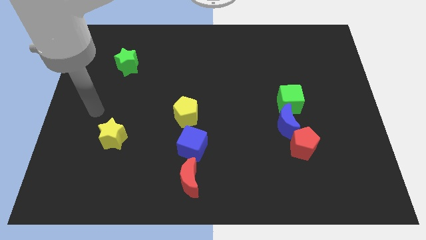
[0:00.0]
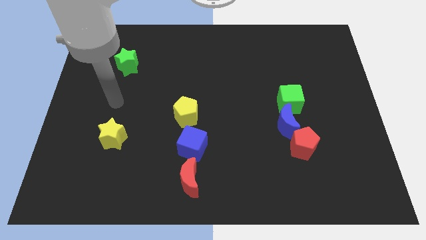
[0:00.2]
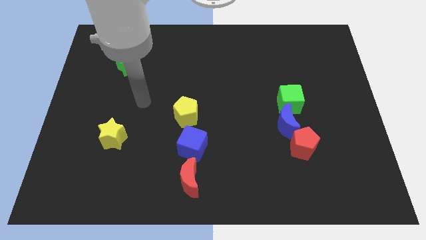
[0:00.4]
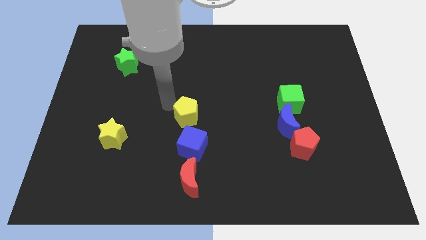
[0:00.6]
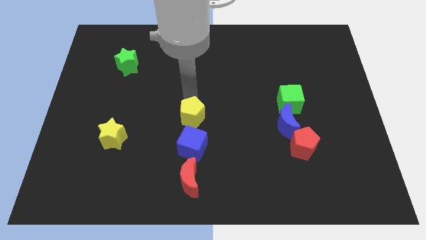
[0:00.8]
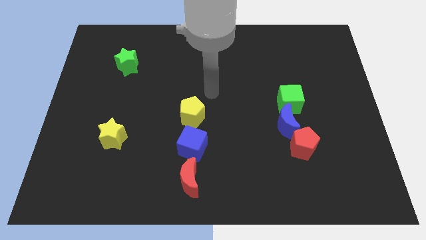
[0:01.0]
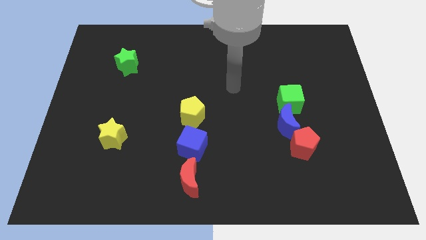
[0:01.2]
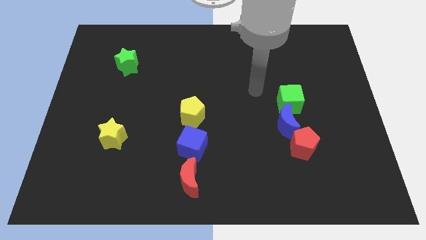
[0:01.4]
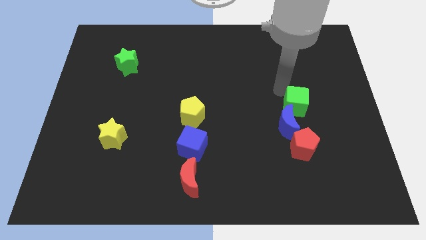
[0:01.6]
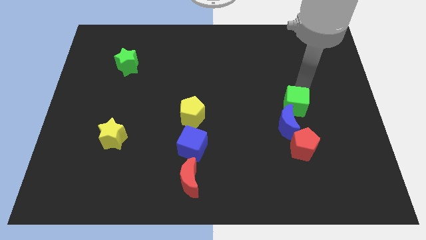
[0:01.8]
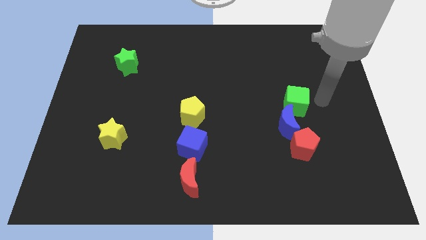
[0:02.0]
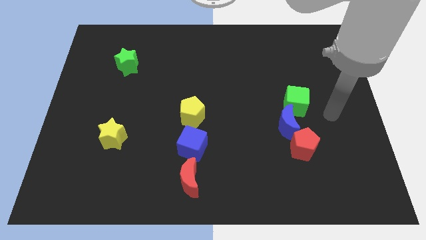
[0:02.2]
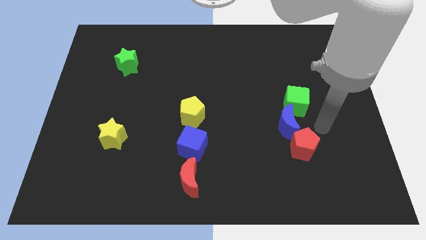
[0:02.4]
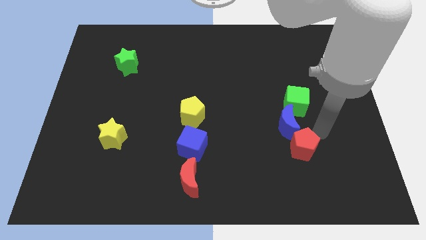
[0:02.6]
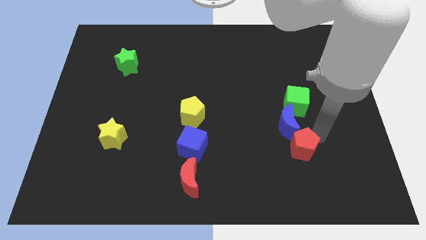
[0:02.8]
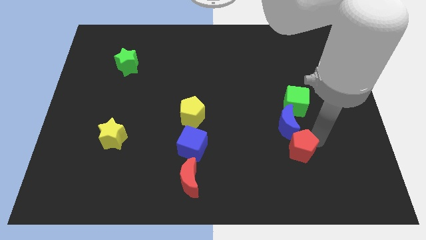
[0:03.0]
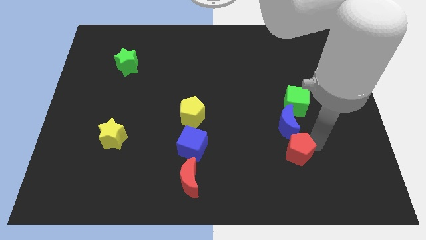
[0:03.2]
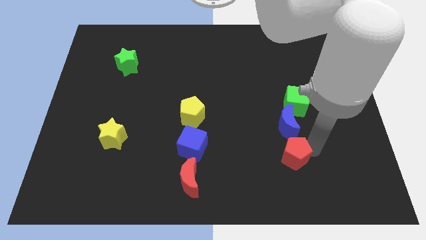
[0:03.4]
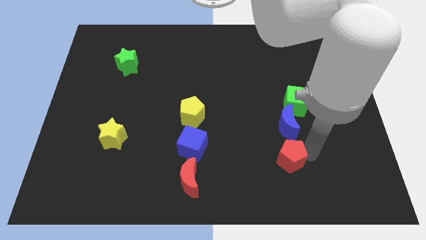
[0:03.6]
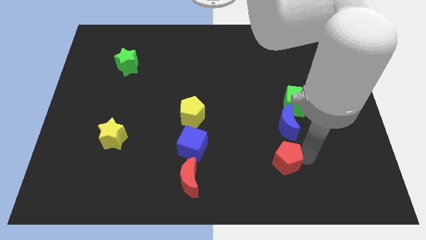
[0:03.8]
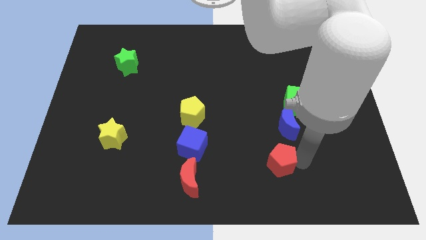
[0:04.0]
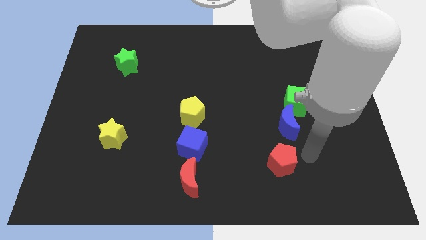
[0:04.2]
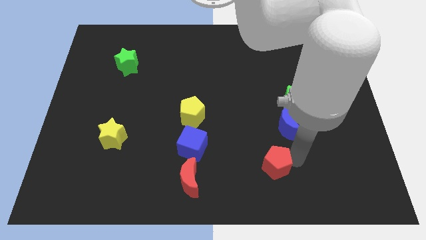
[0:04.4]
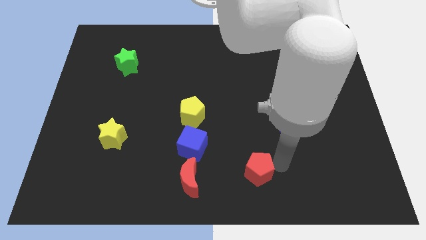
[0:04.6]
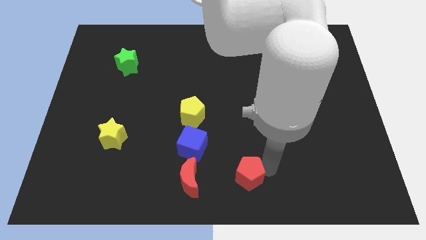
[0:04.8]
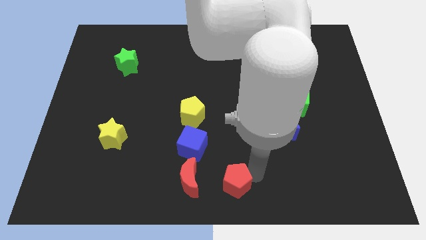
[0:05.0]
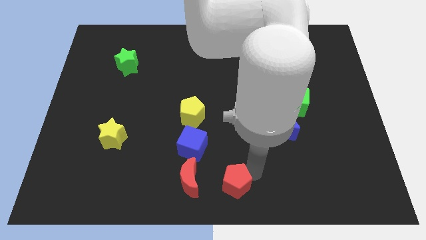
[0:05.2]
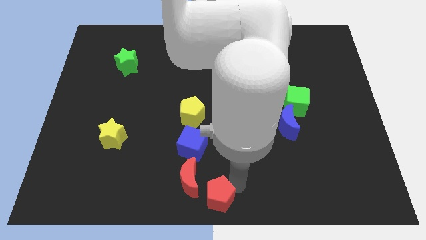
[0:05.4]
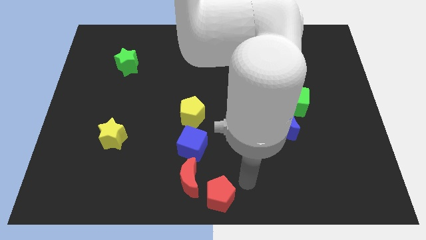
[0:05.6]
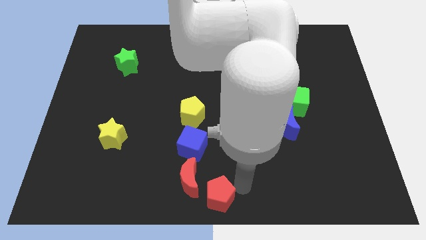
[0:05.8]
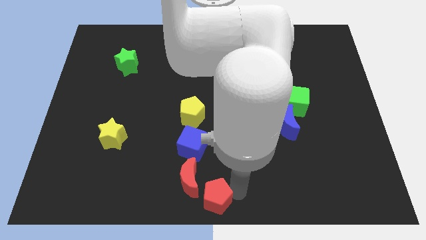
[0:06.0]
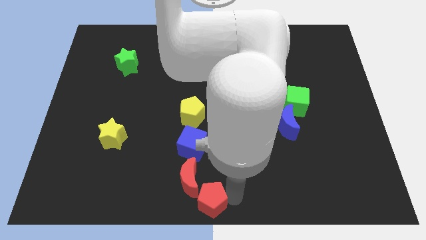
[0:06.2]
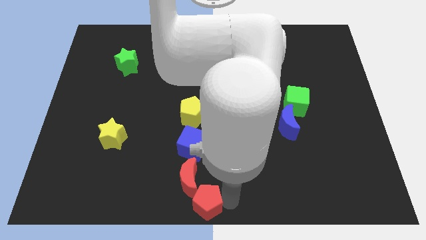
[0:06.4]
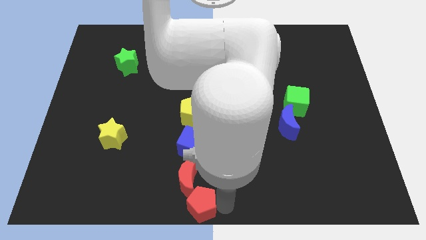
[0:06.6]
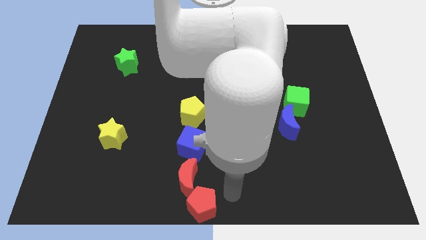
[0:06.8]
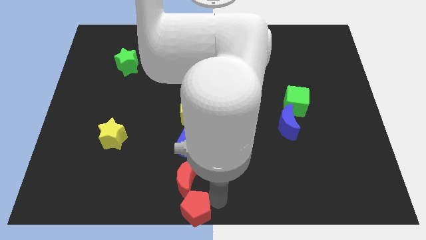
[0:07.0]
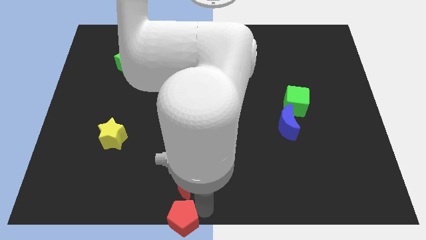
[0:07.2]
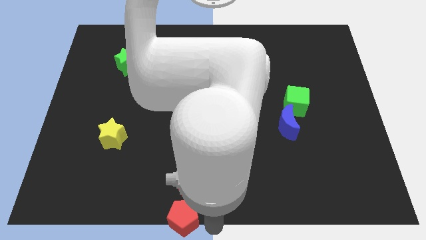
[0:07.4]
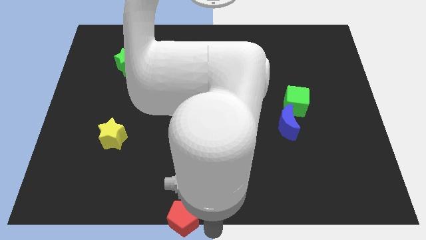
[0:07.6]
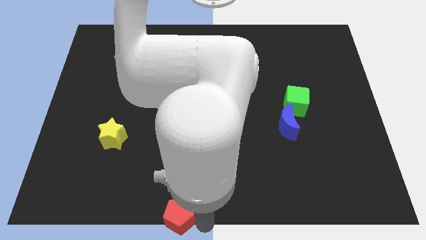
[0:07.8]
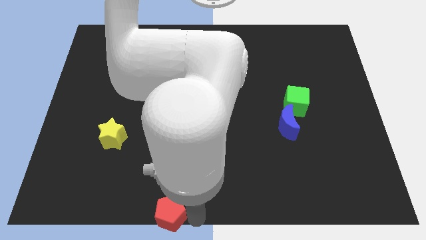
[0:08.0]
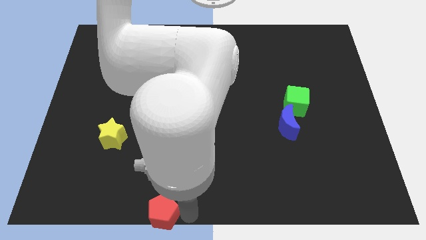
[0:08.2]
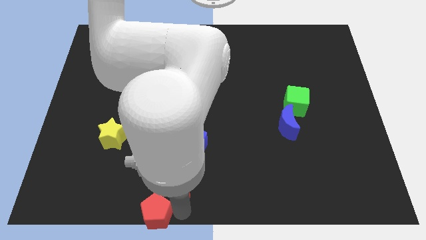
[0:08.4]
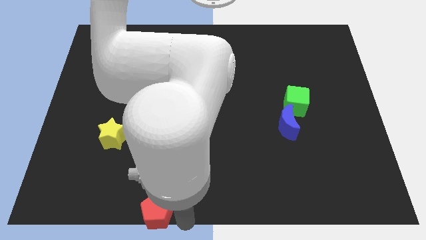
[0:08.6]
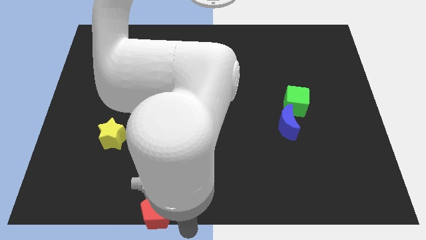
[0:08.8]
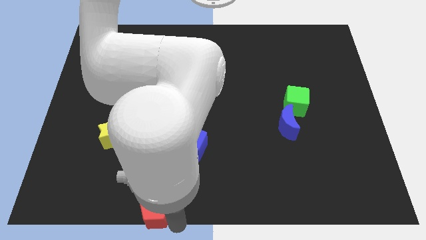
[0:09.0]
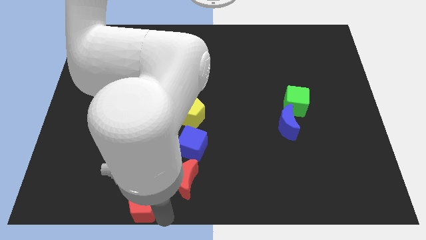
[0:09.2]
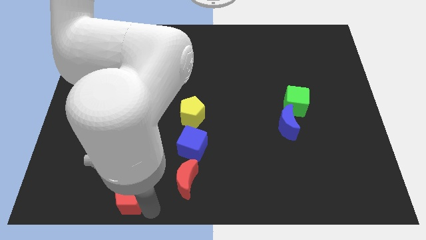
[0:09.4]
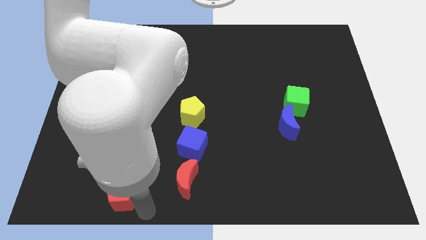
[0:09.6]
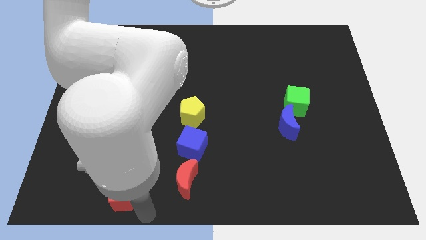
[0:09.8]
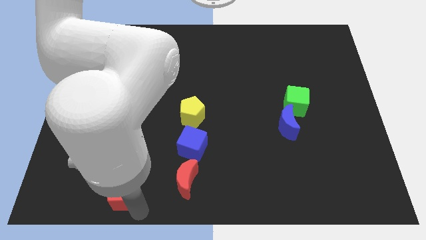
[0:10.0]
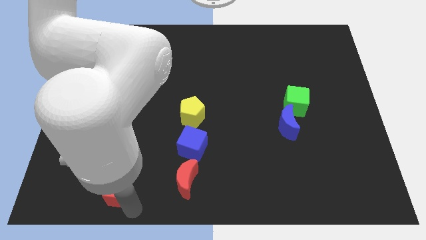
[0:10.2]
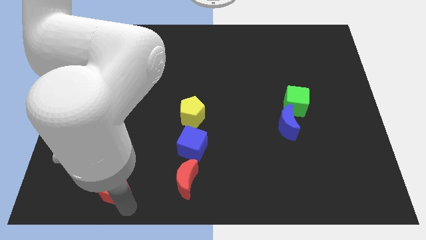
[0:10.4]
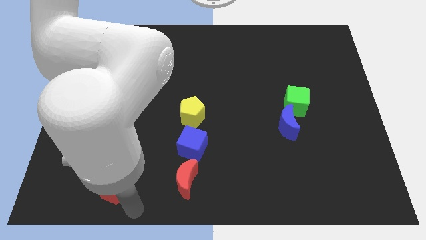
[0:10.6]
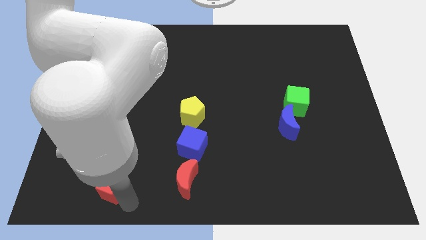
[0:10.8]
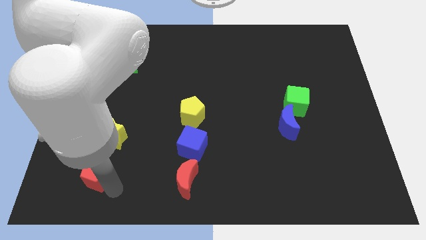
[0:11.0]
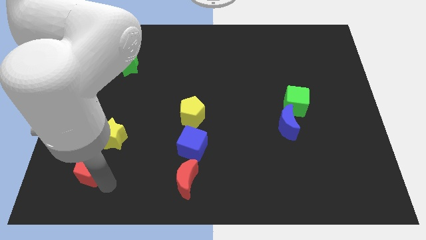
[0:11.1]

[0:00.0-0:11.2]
push the red pentagon diagonally down and to the left of the yellow star

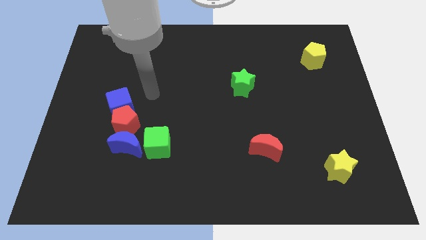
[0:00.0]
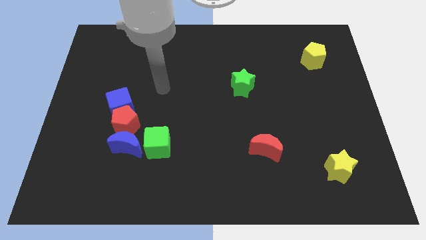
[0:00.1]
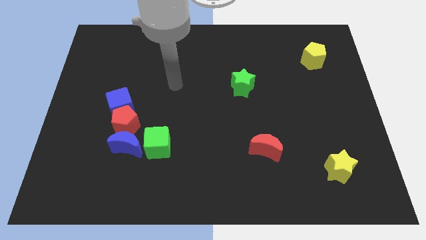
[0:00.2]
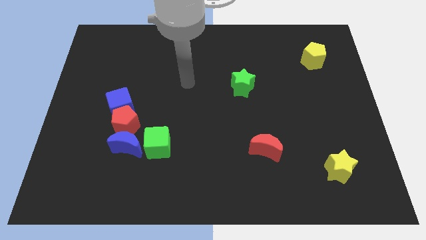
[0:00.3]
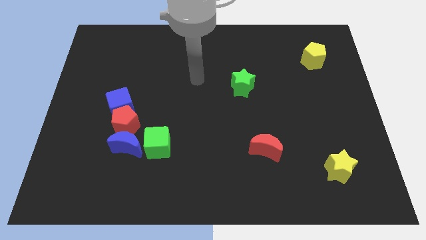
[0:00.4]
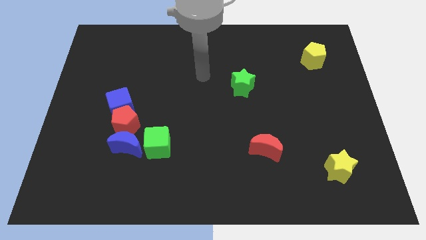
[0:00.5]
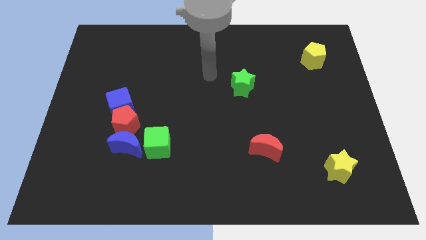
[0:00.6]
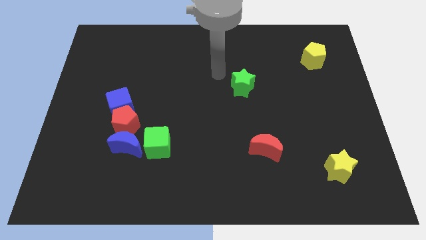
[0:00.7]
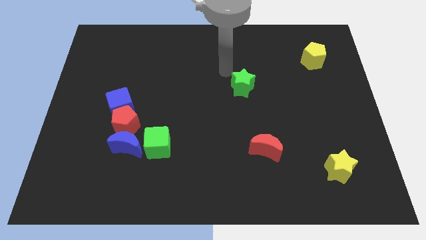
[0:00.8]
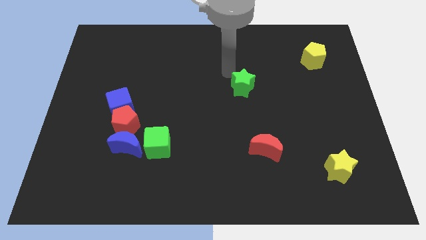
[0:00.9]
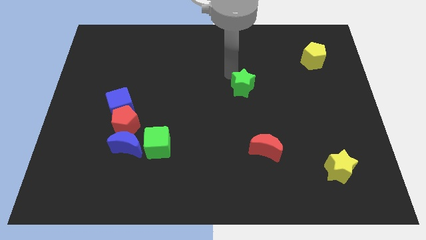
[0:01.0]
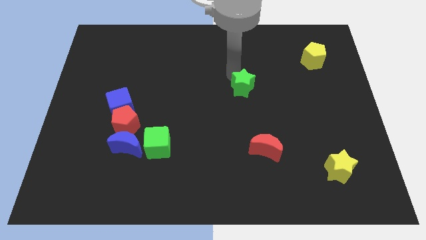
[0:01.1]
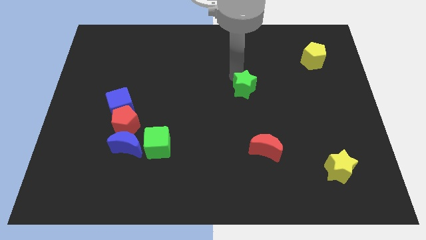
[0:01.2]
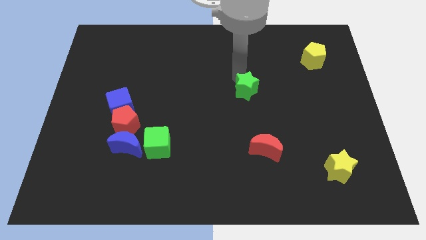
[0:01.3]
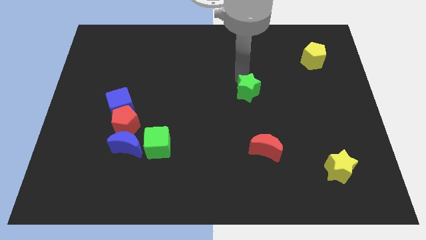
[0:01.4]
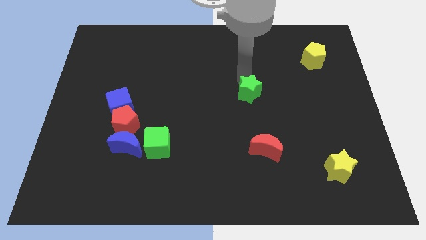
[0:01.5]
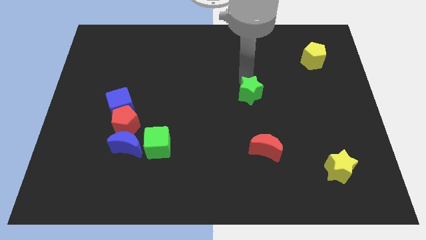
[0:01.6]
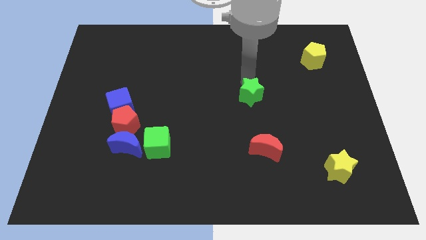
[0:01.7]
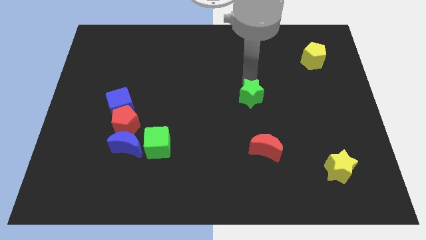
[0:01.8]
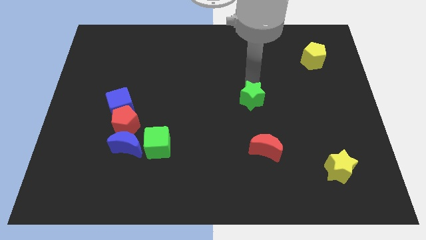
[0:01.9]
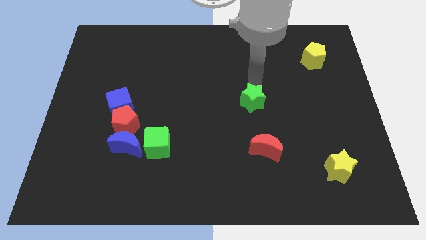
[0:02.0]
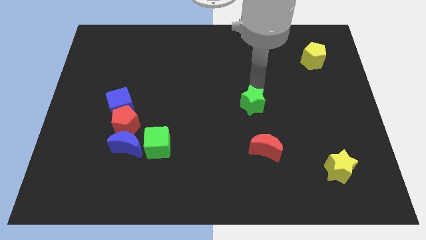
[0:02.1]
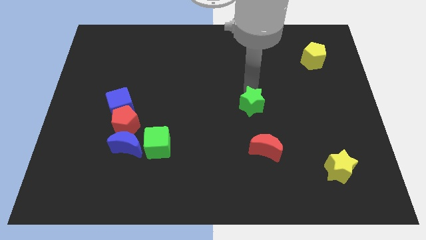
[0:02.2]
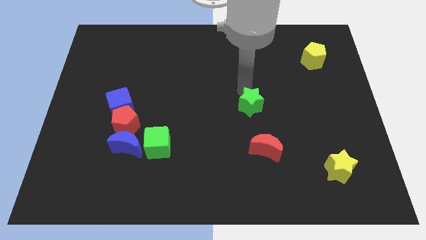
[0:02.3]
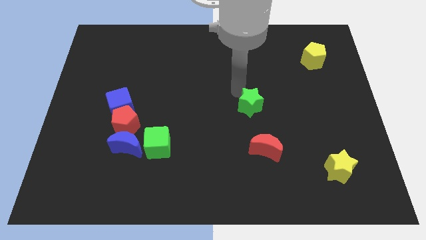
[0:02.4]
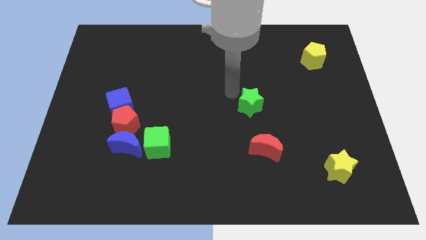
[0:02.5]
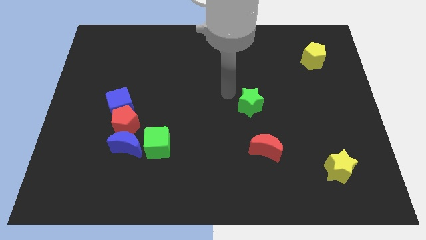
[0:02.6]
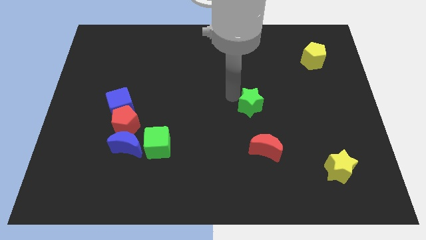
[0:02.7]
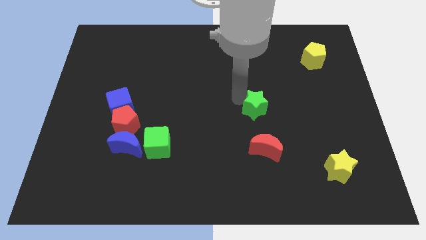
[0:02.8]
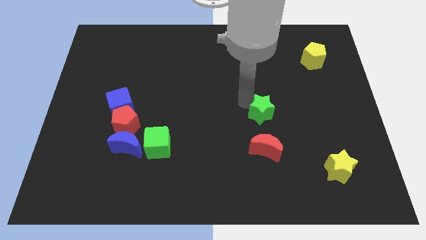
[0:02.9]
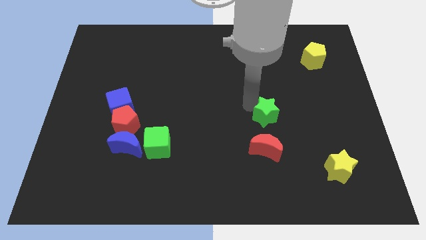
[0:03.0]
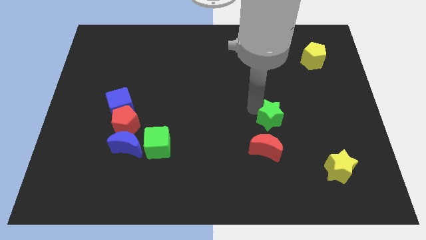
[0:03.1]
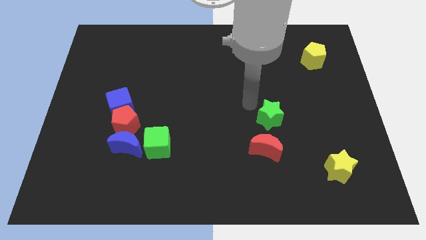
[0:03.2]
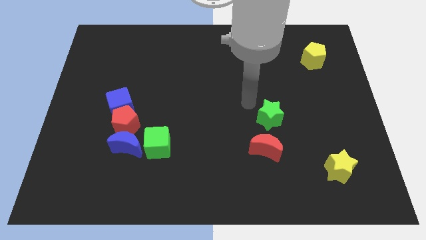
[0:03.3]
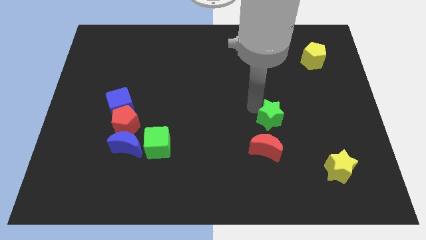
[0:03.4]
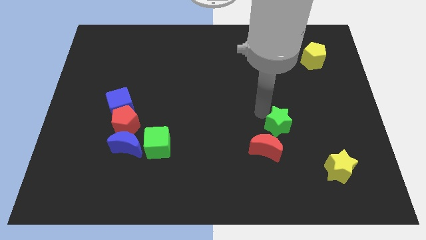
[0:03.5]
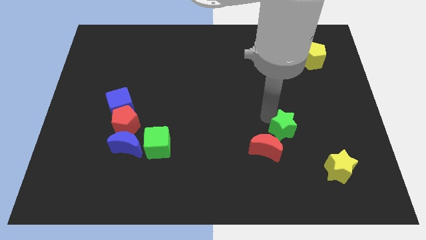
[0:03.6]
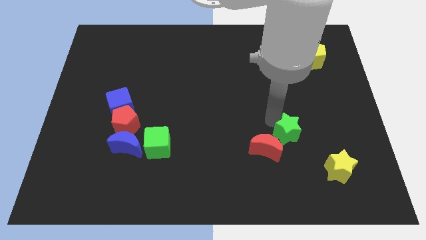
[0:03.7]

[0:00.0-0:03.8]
put the green star to the right of the red moon
